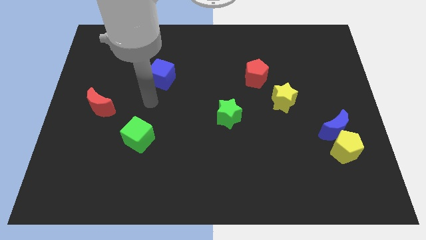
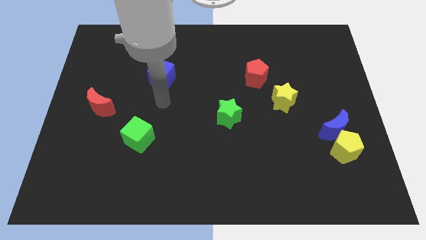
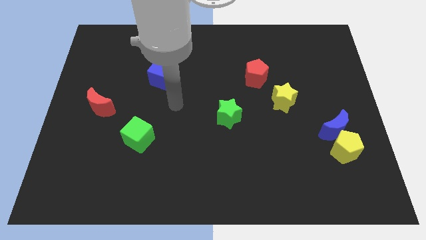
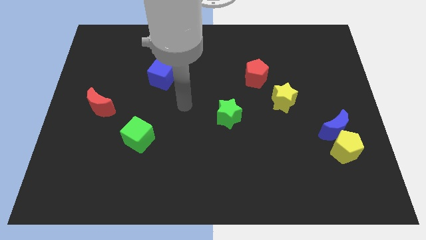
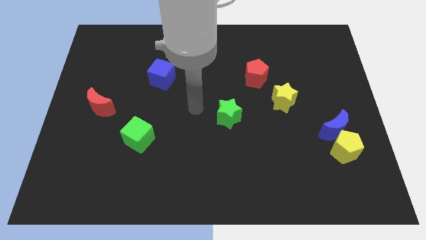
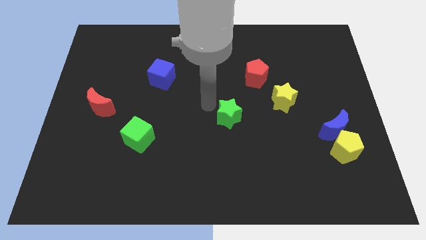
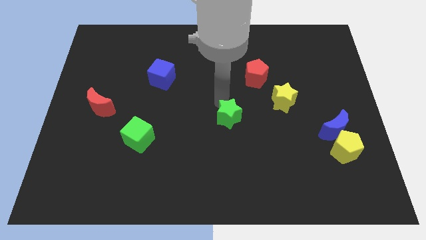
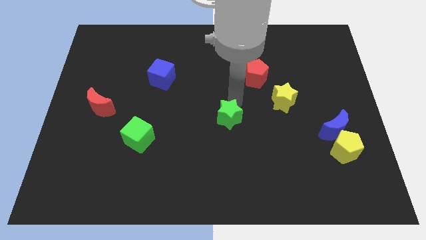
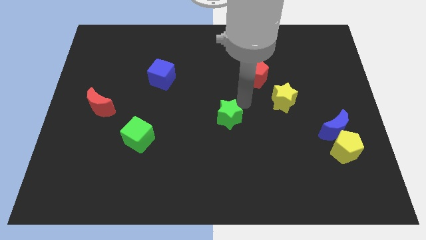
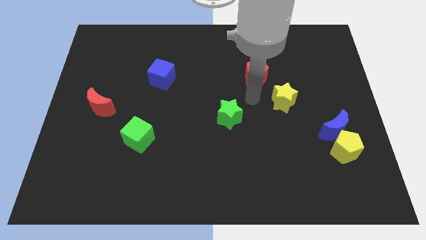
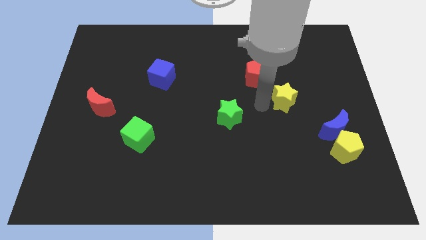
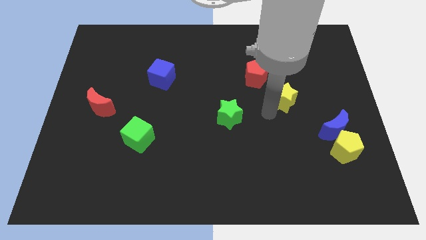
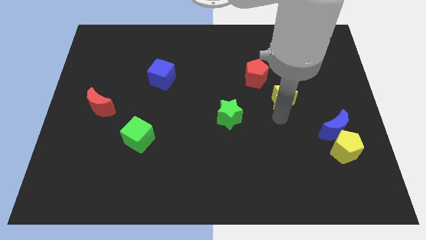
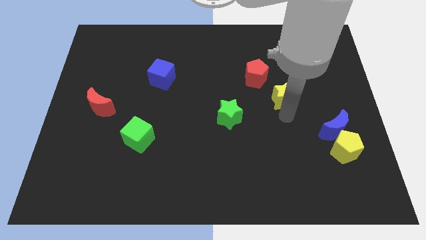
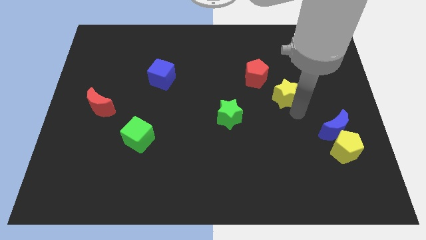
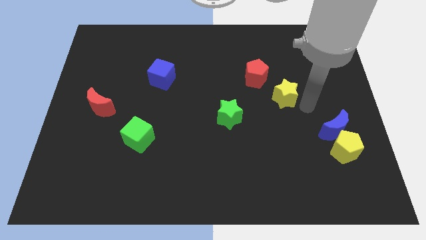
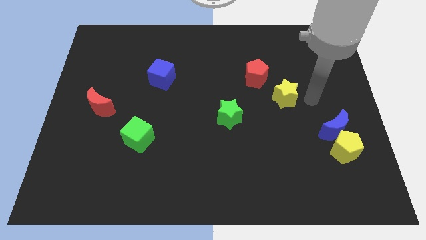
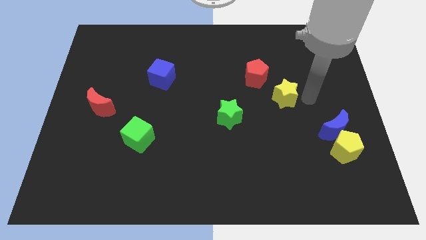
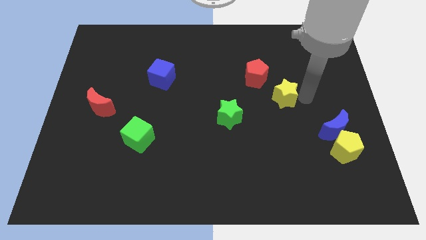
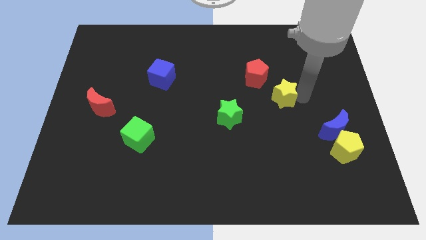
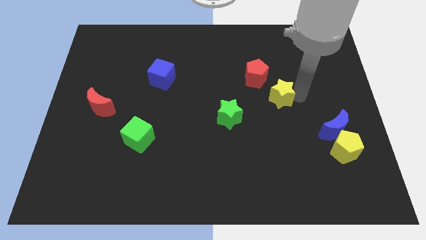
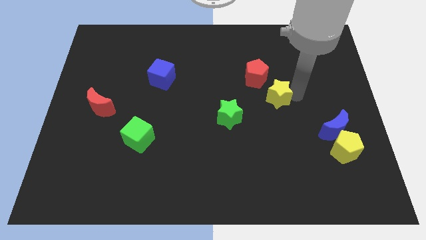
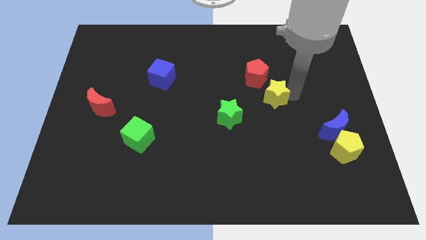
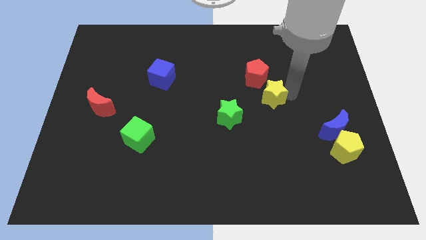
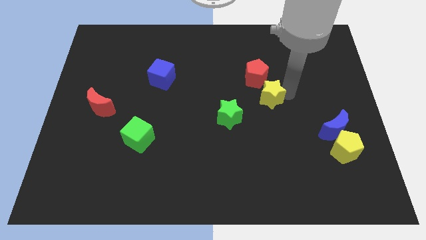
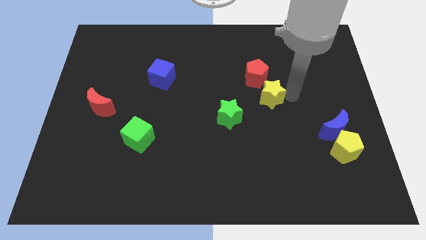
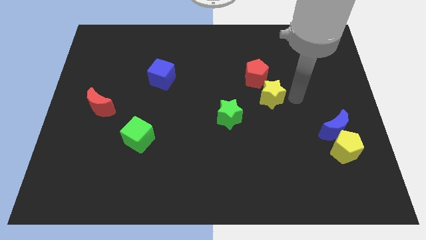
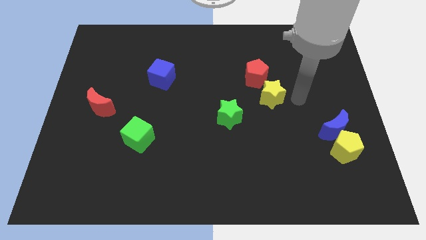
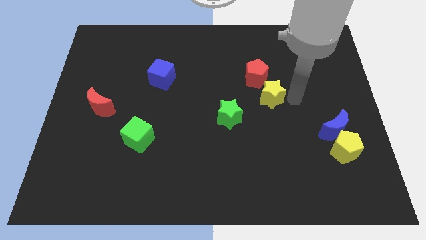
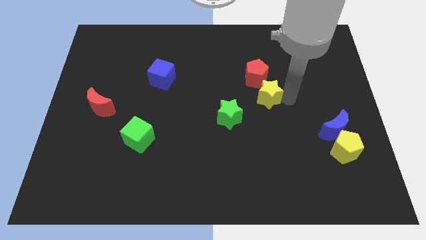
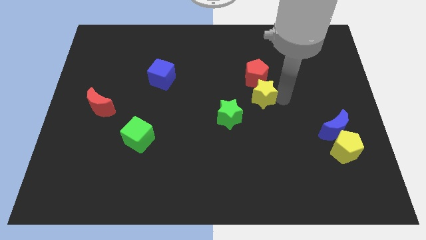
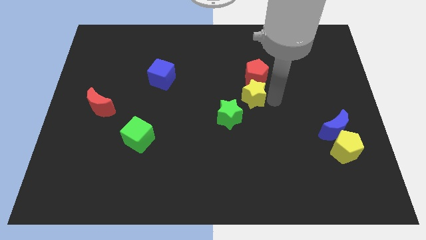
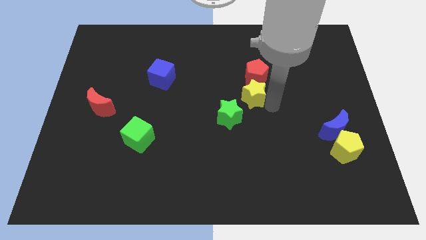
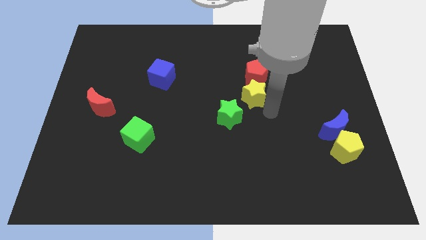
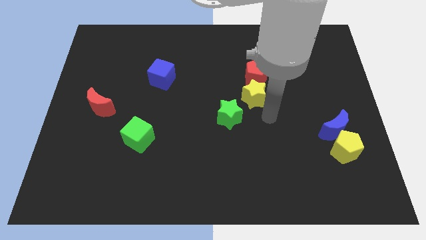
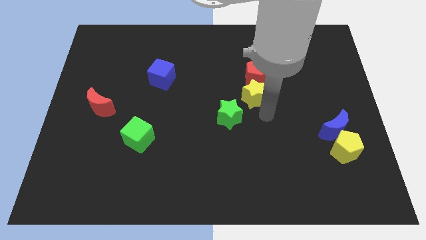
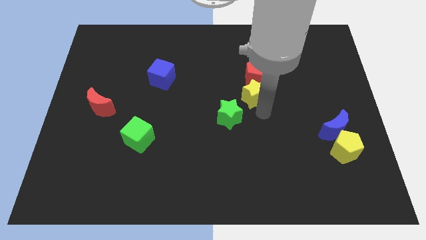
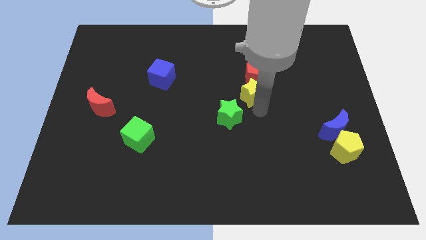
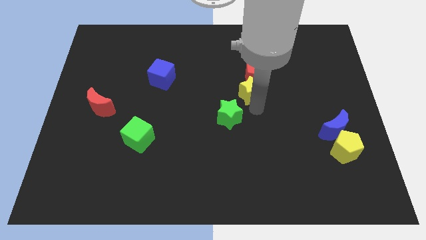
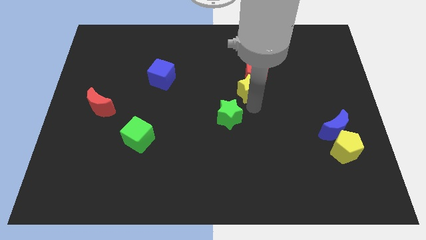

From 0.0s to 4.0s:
slide the yellow star slightly up and then left

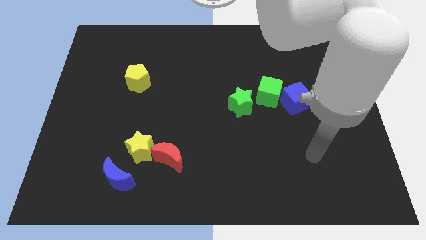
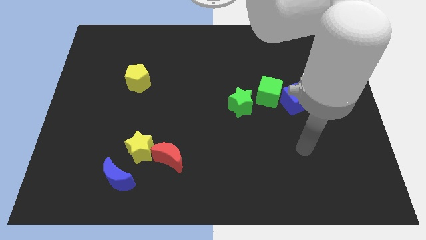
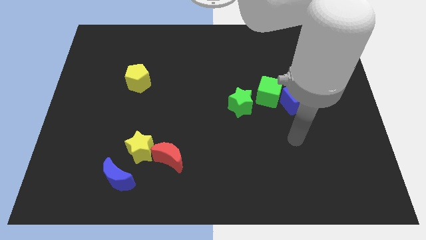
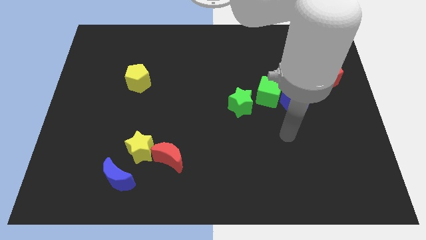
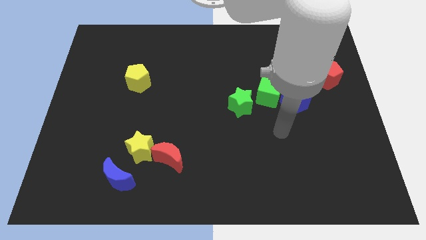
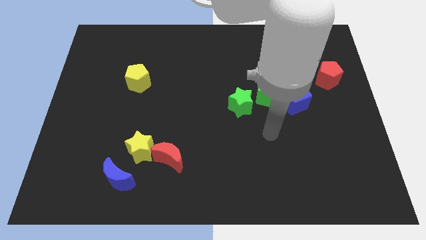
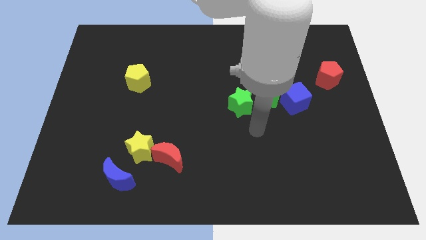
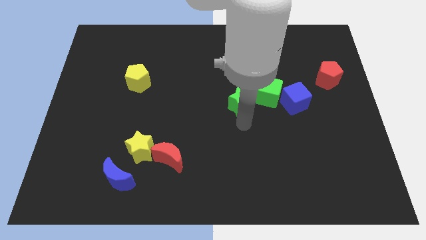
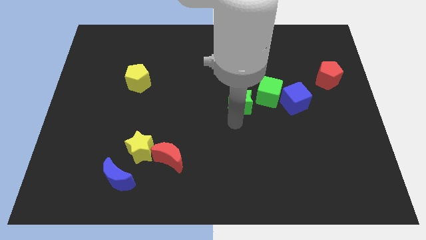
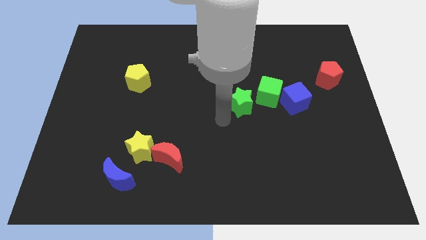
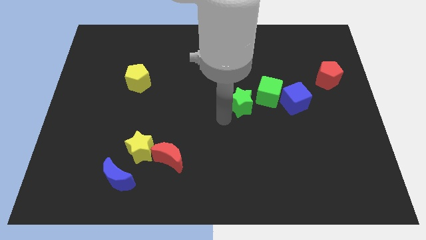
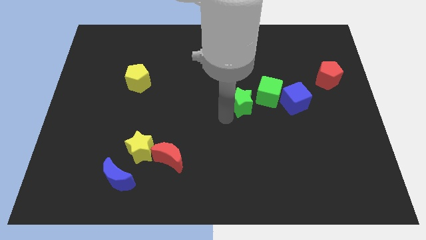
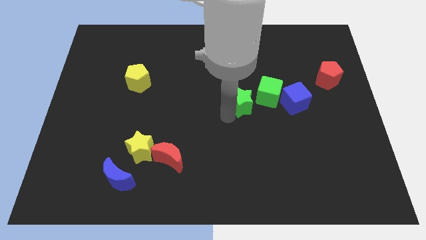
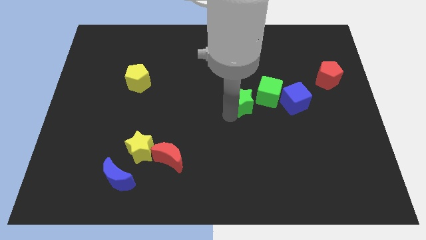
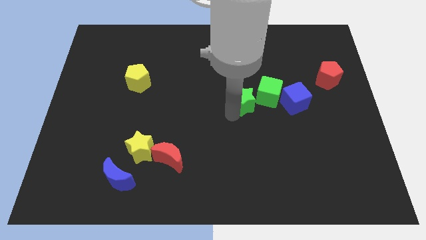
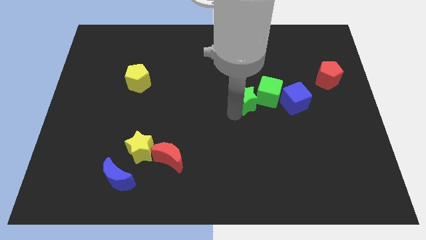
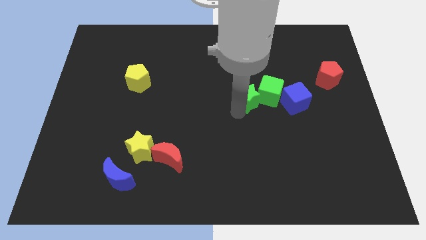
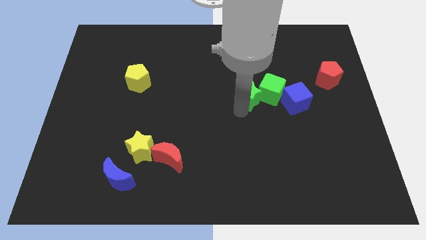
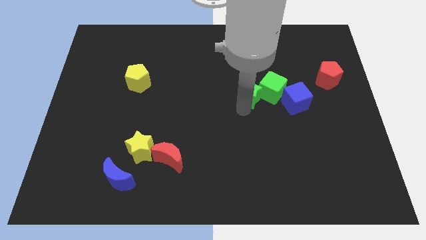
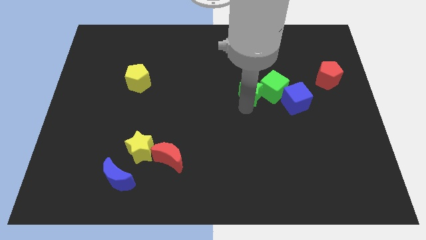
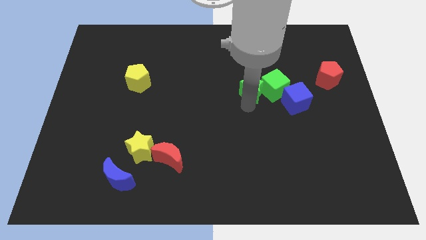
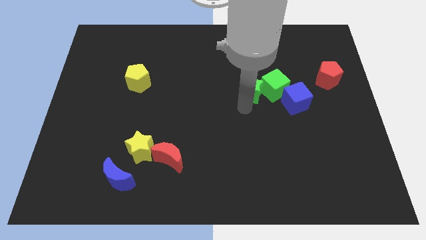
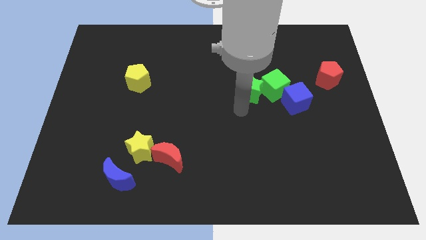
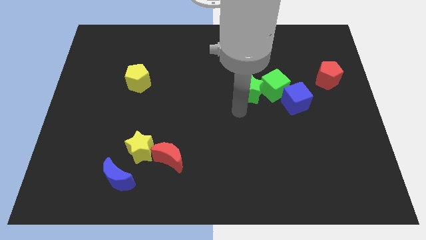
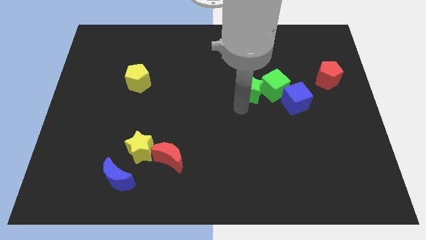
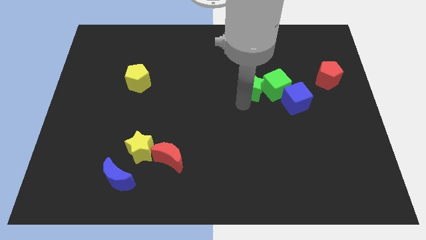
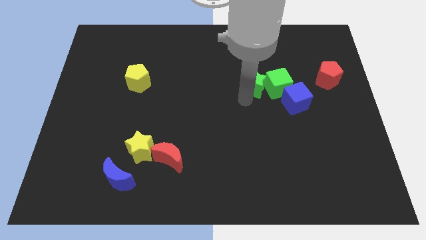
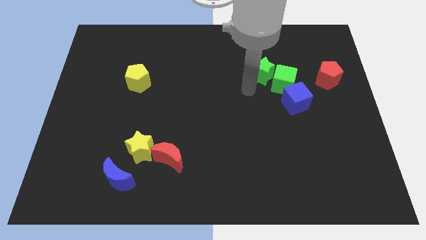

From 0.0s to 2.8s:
slightly push the green star diagonally upwards and right

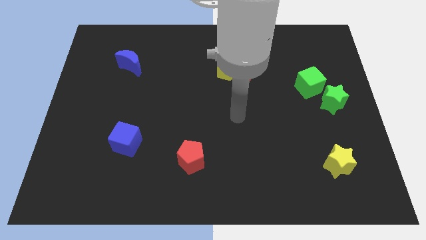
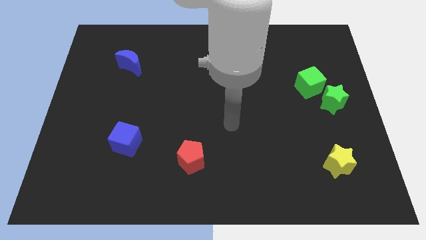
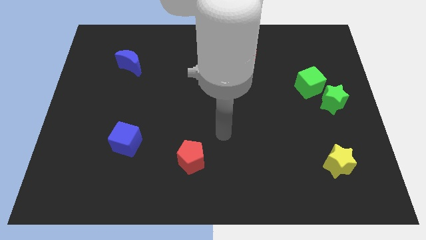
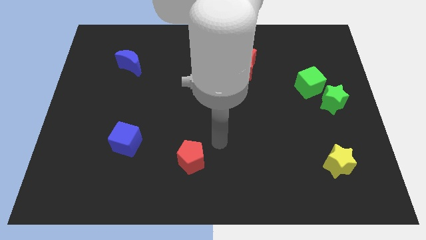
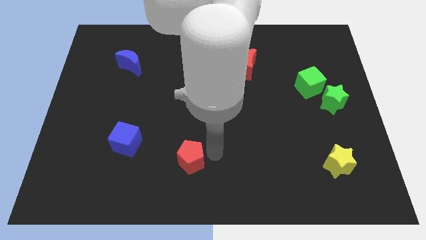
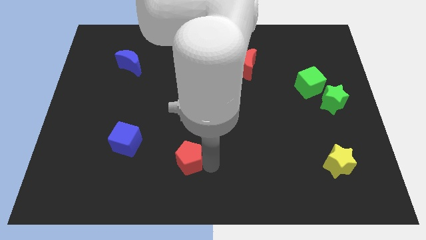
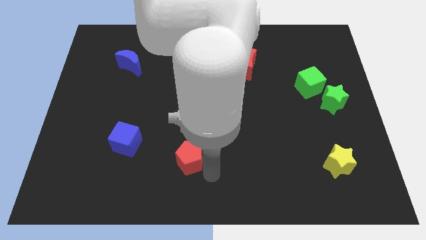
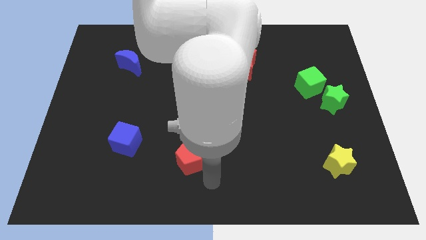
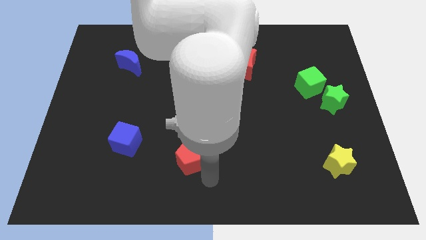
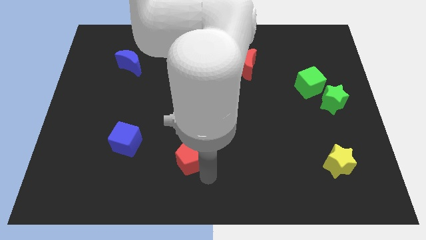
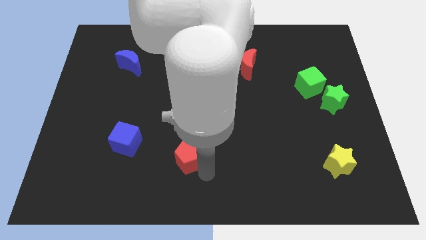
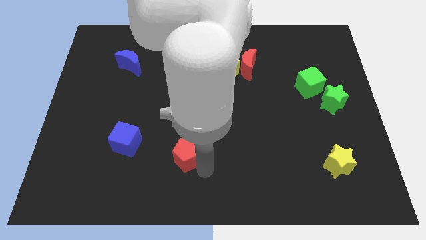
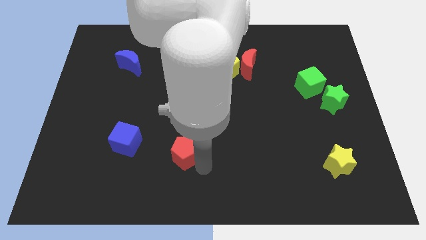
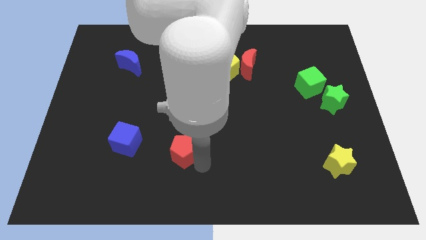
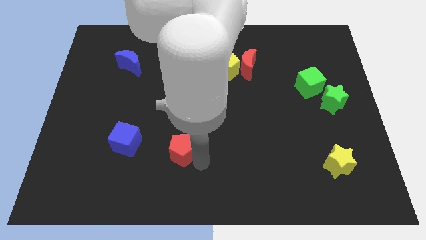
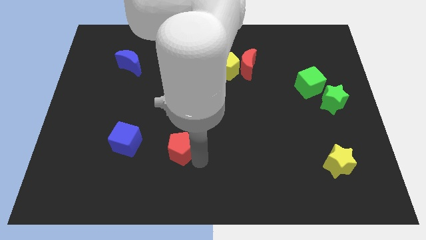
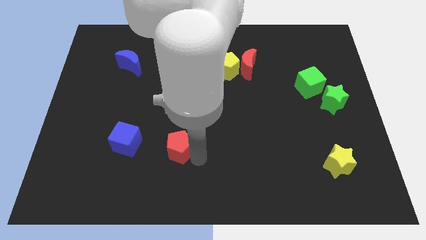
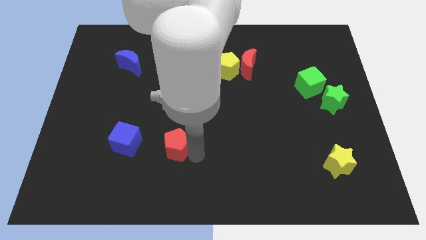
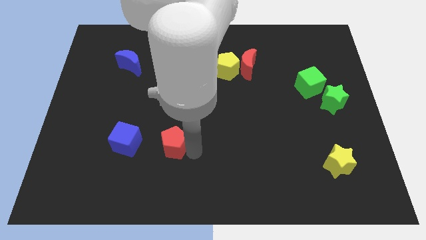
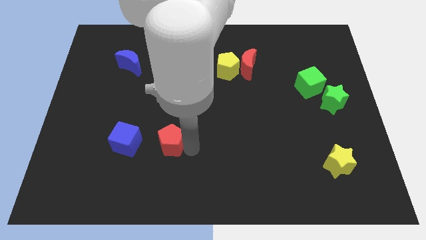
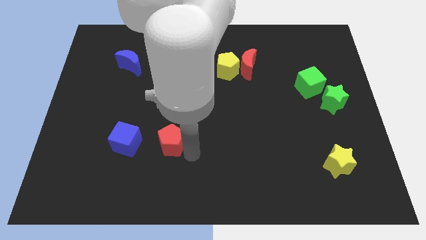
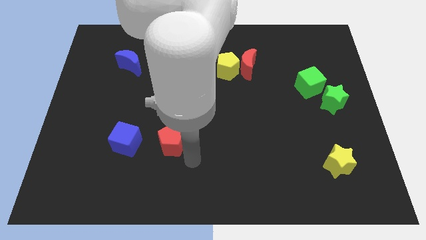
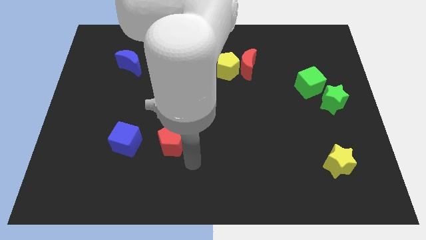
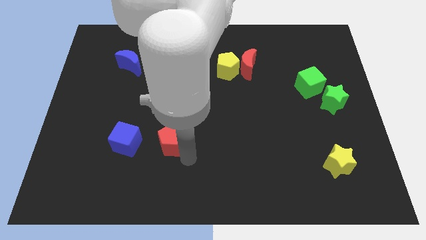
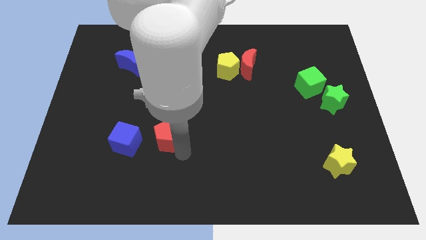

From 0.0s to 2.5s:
slightly slide the red pentagon diagonally up and to the left
